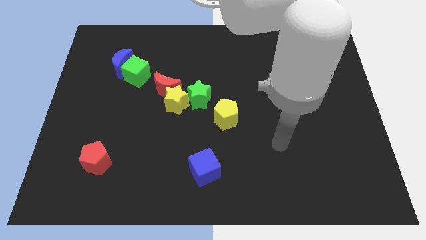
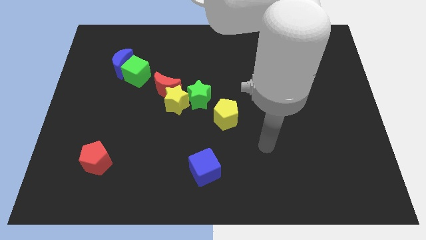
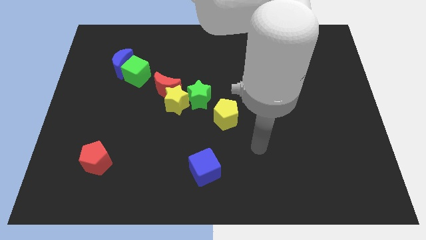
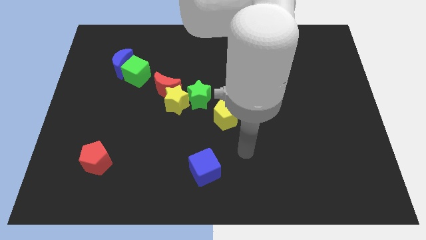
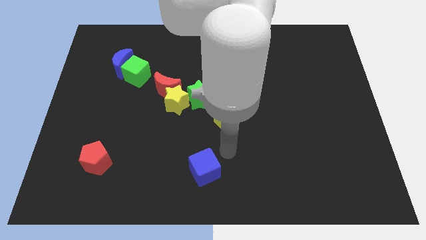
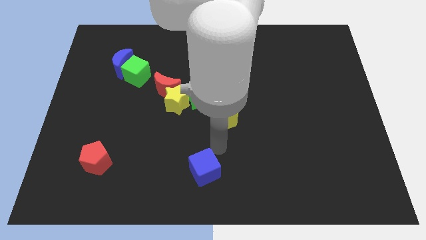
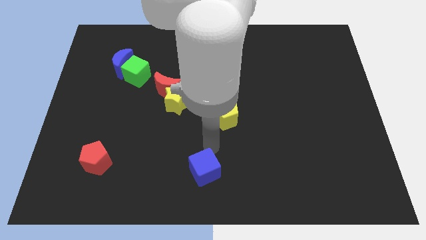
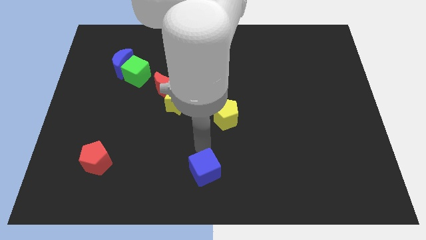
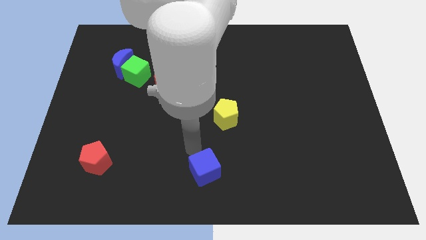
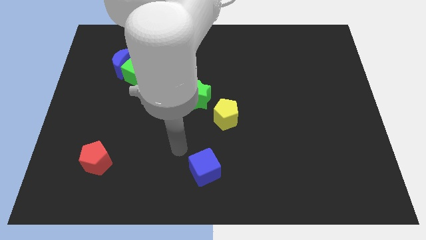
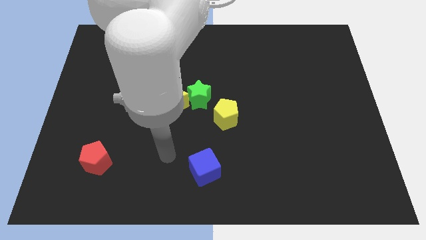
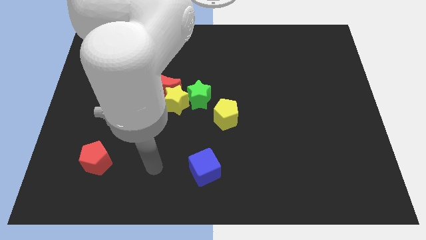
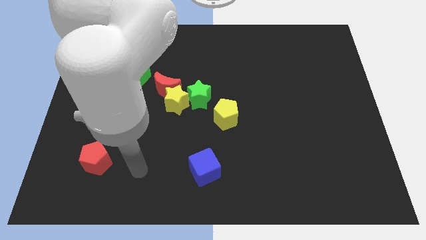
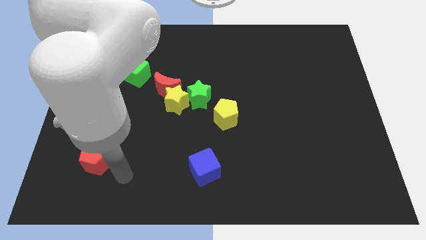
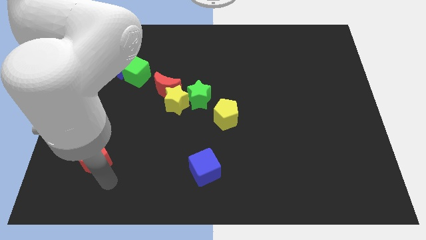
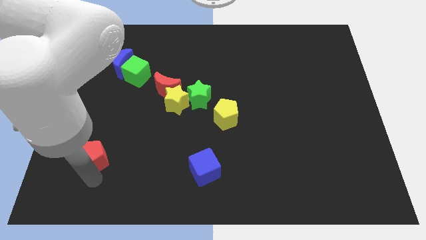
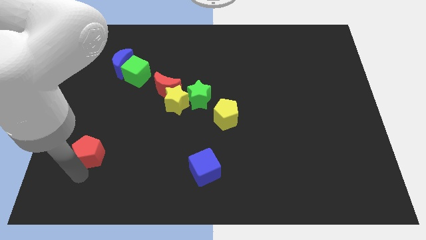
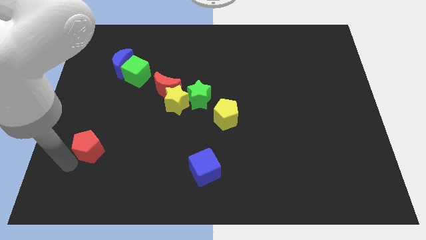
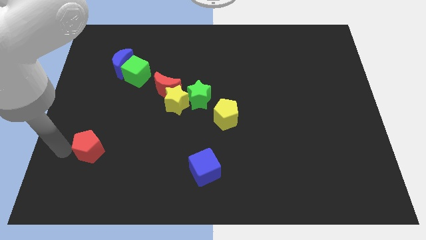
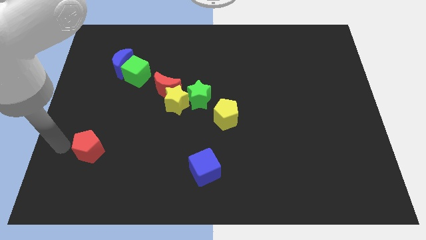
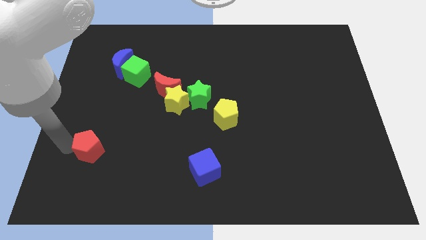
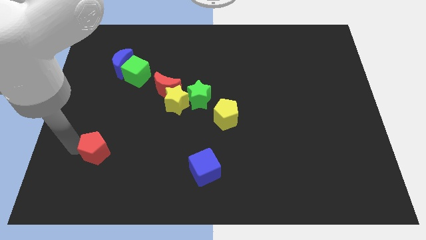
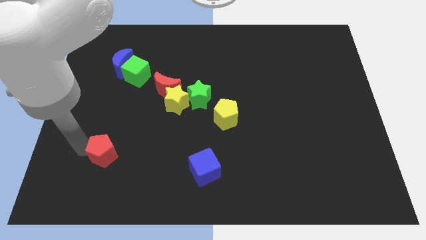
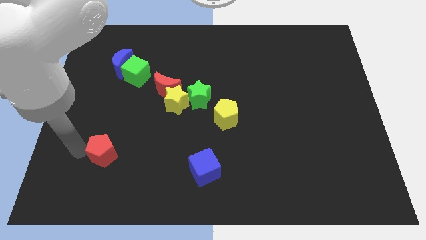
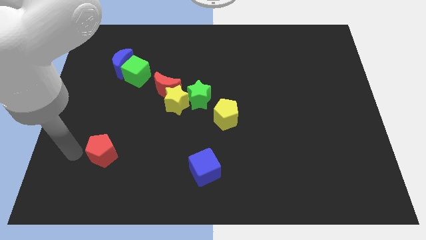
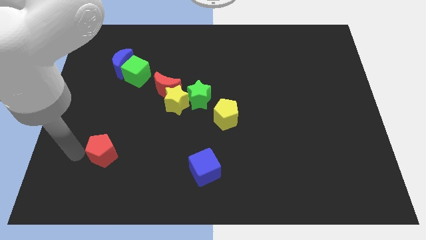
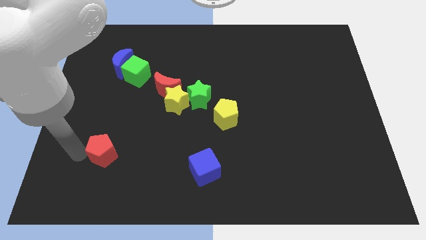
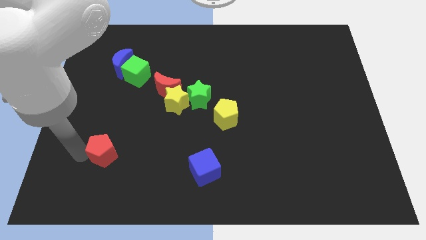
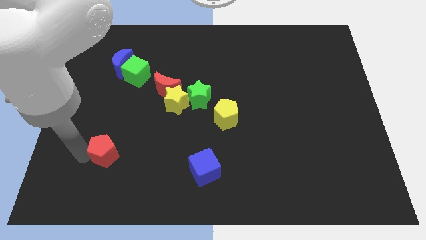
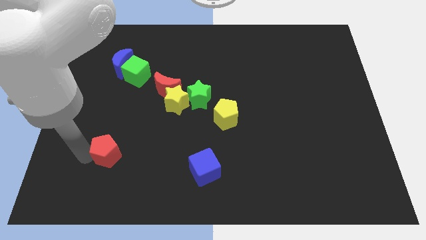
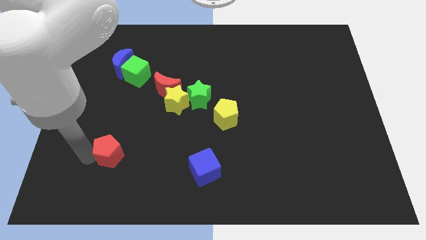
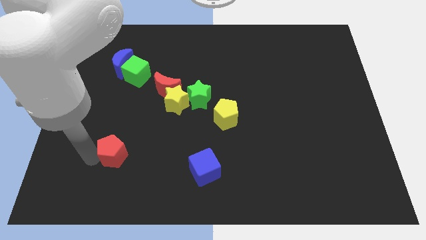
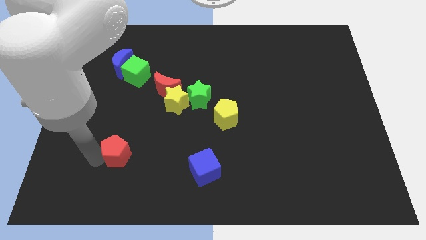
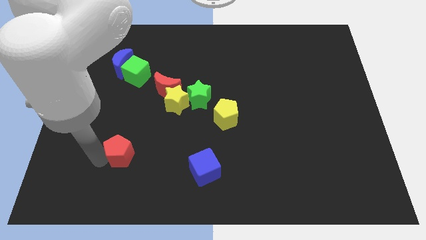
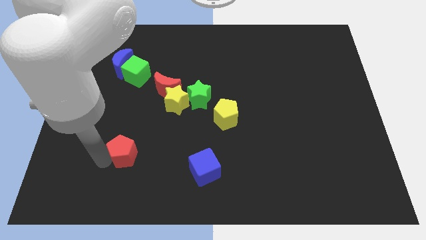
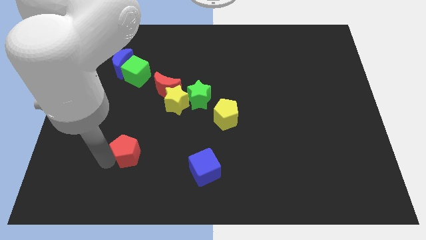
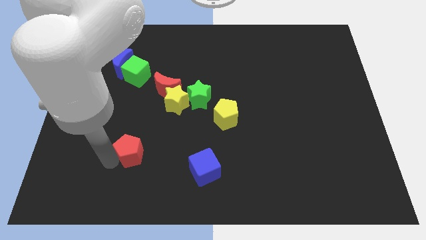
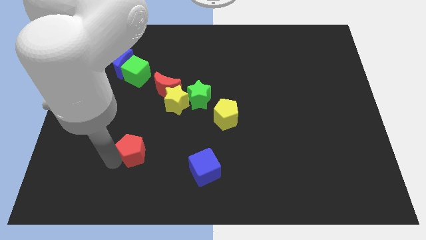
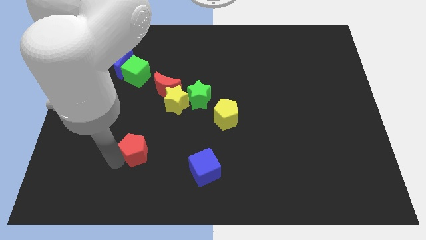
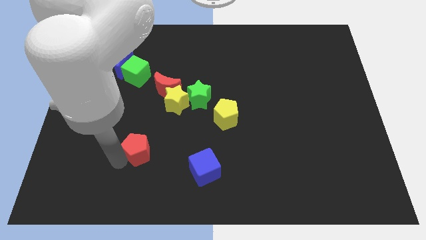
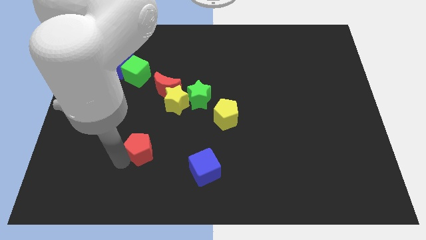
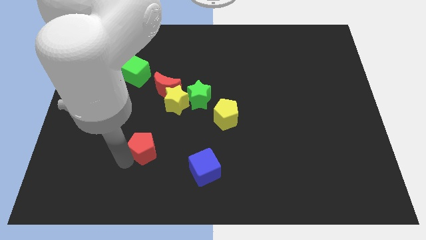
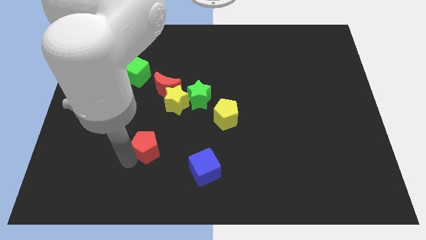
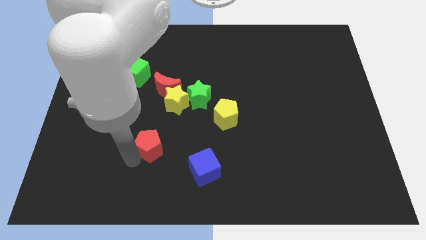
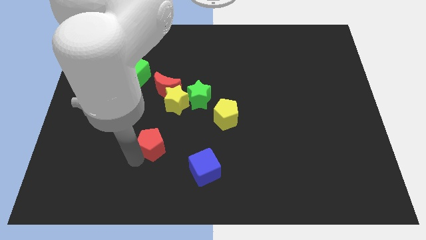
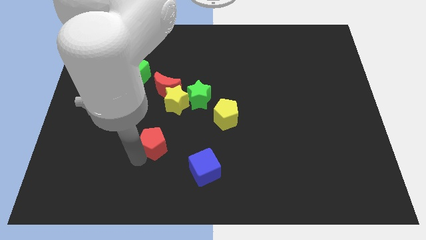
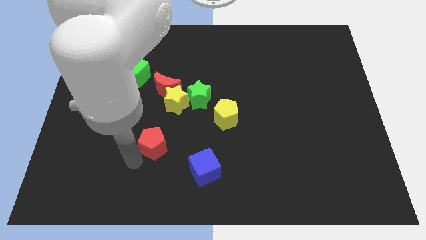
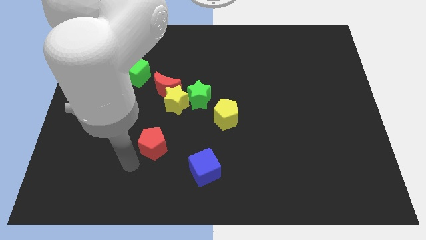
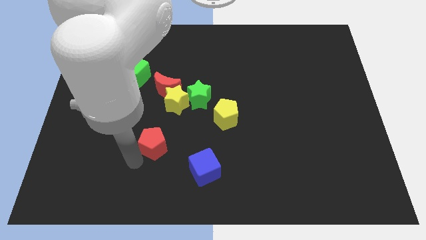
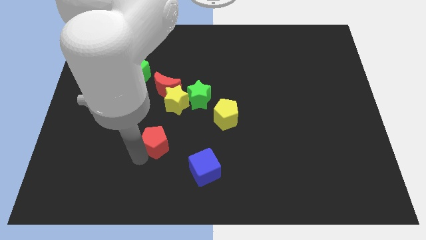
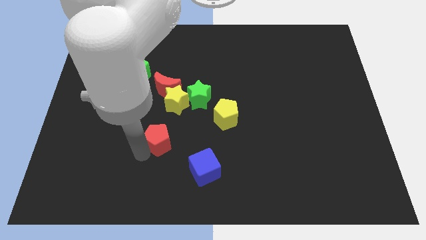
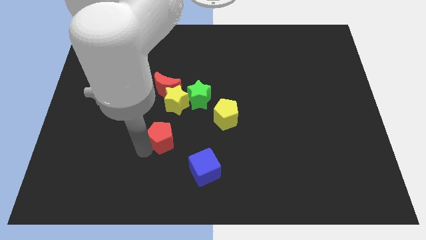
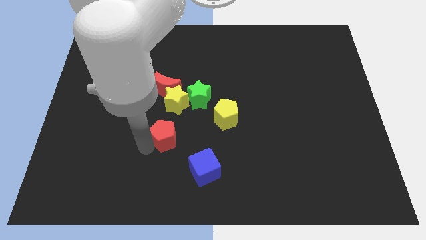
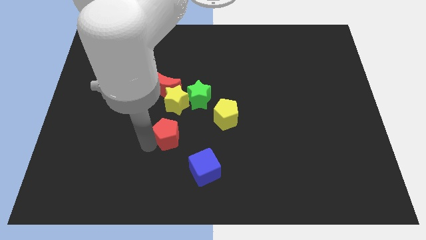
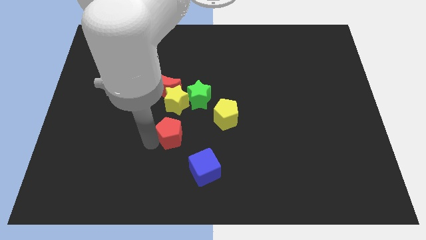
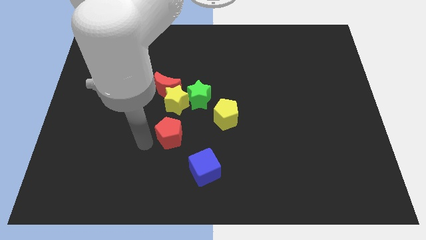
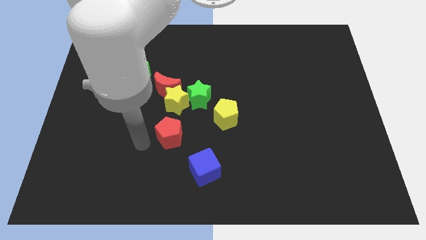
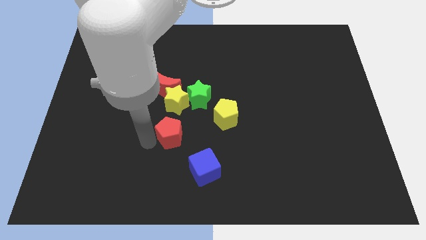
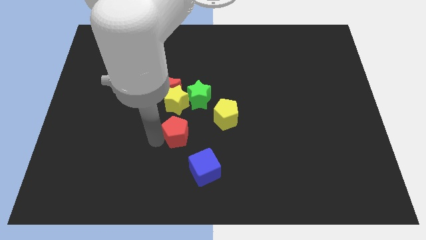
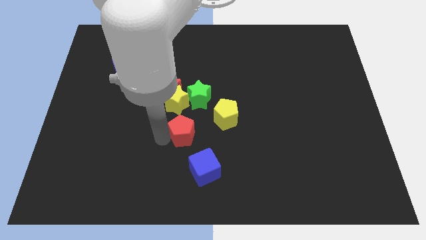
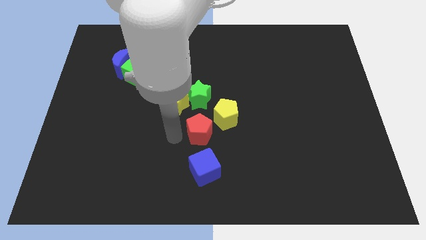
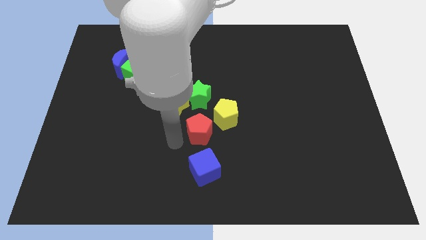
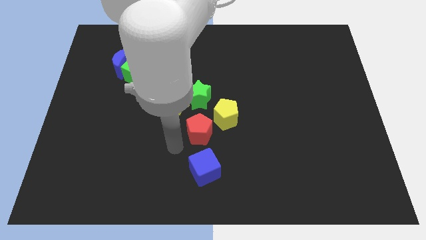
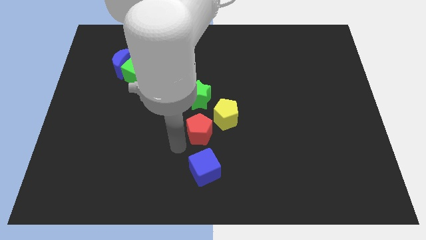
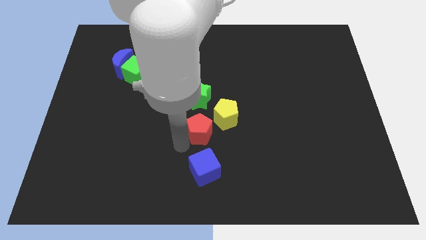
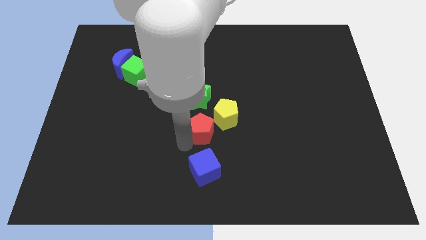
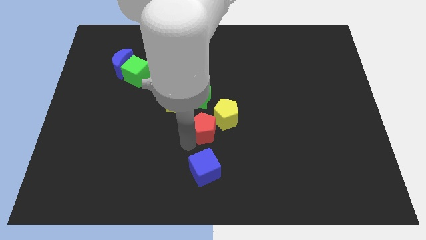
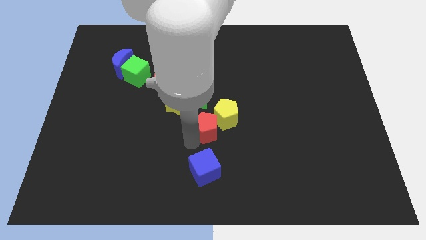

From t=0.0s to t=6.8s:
push the red pentagon towards the yellow pentagon
